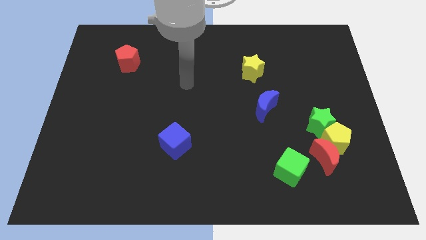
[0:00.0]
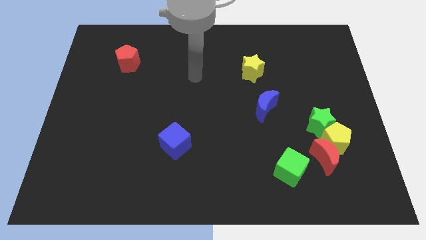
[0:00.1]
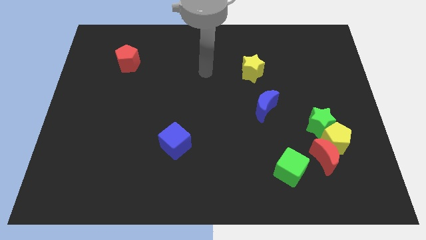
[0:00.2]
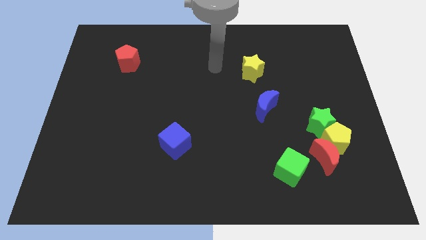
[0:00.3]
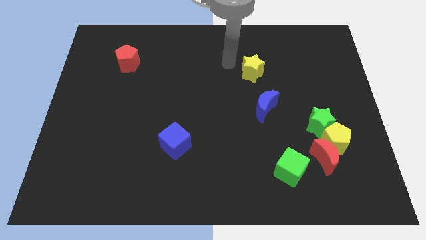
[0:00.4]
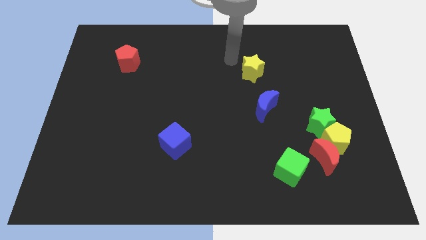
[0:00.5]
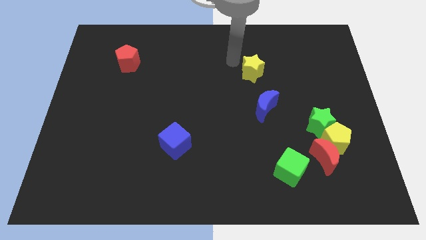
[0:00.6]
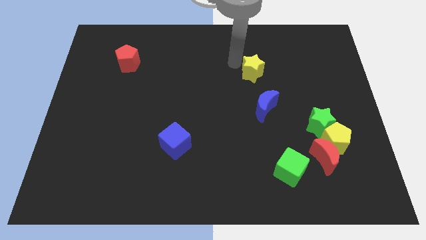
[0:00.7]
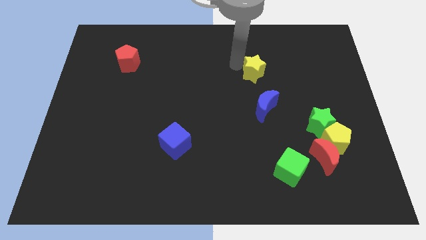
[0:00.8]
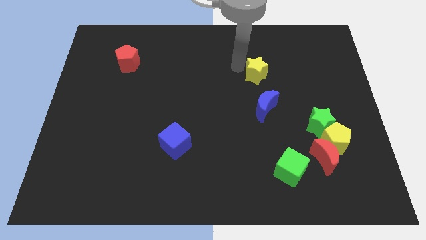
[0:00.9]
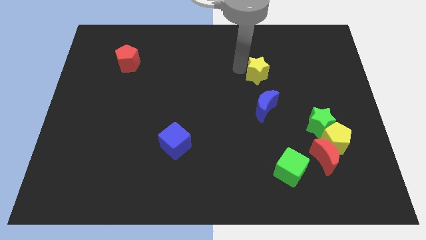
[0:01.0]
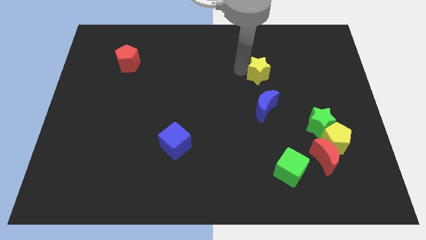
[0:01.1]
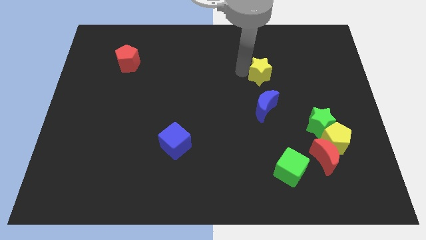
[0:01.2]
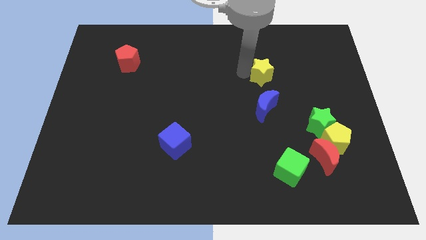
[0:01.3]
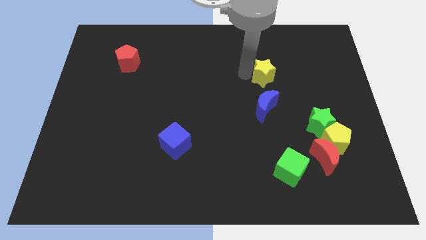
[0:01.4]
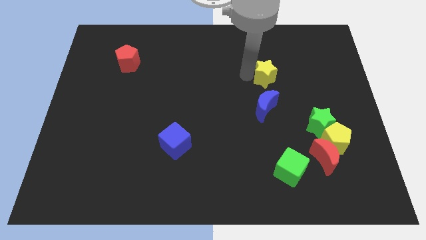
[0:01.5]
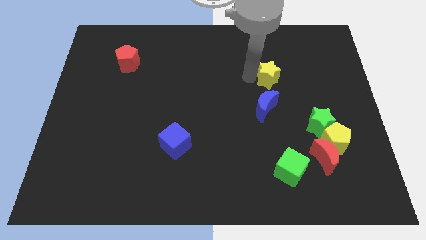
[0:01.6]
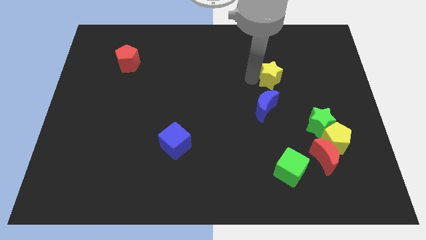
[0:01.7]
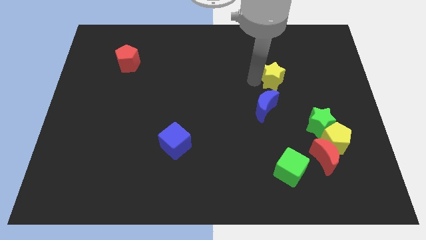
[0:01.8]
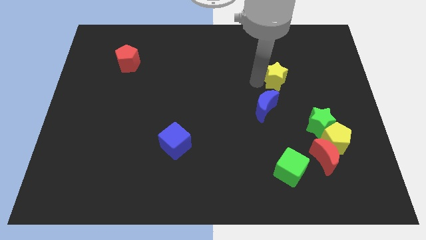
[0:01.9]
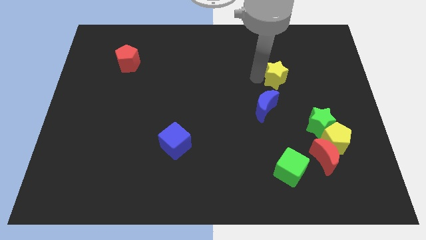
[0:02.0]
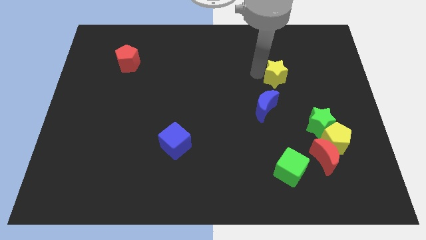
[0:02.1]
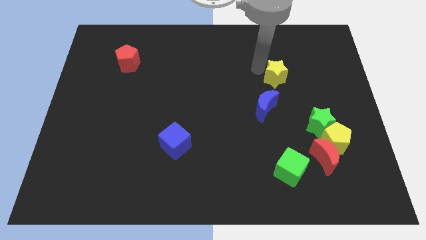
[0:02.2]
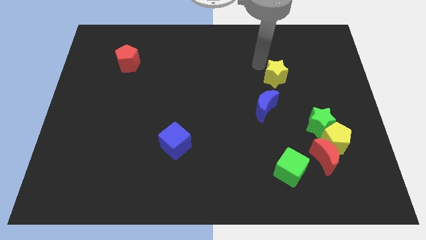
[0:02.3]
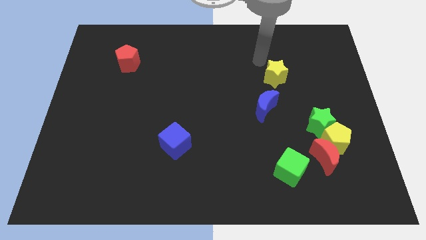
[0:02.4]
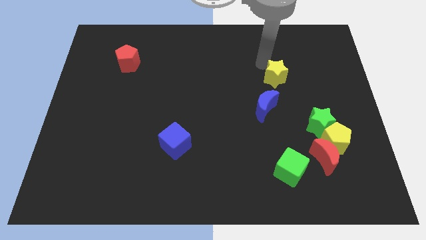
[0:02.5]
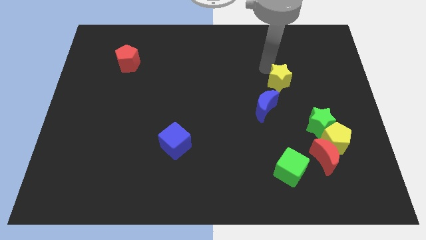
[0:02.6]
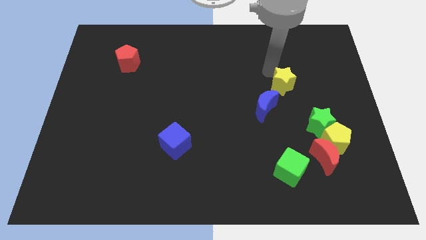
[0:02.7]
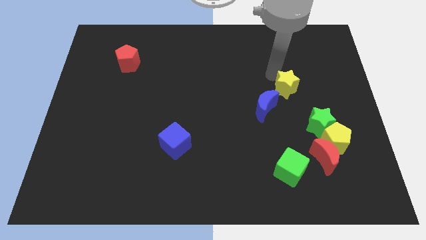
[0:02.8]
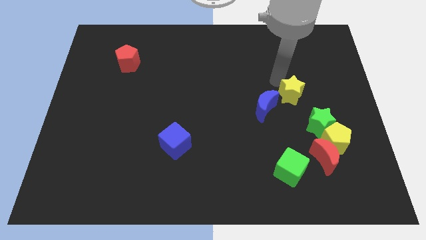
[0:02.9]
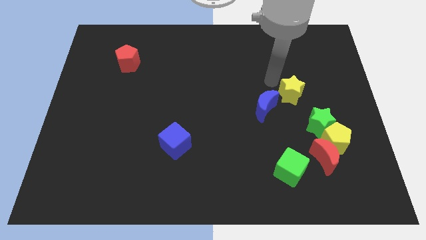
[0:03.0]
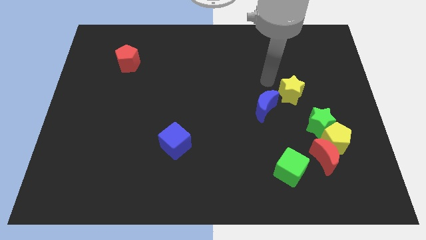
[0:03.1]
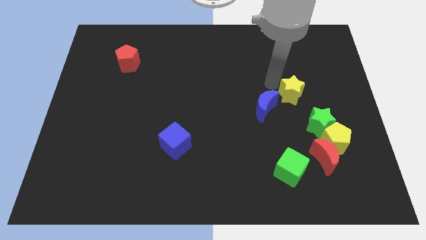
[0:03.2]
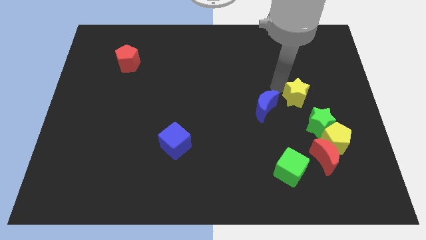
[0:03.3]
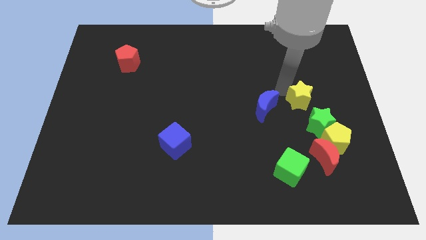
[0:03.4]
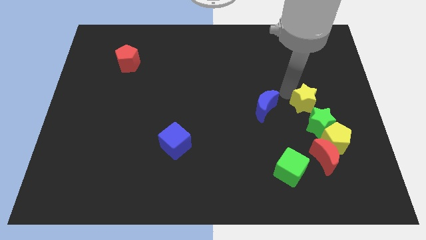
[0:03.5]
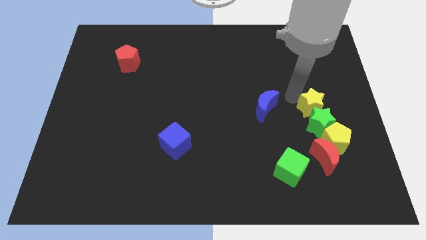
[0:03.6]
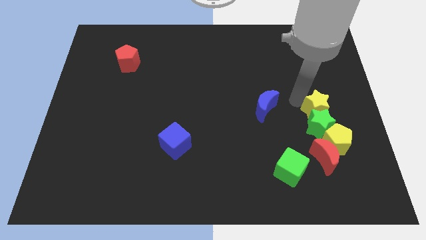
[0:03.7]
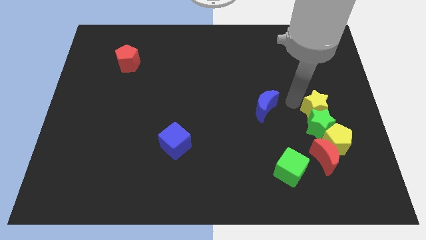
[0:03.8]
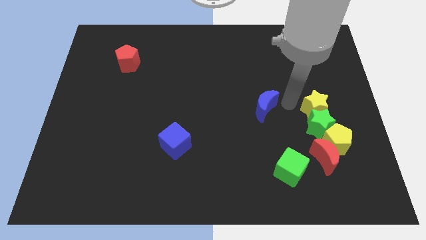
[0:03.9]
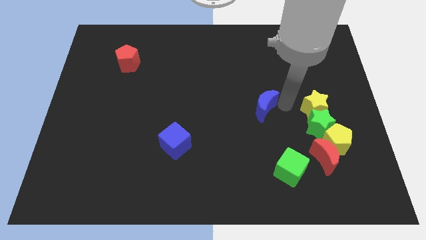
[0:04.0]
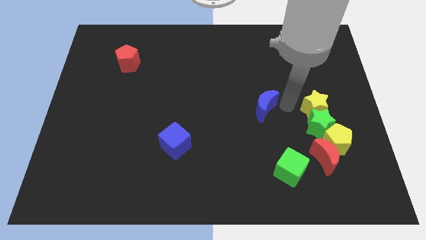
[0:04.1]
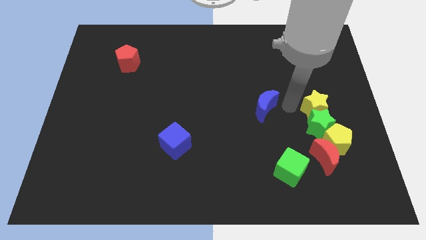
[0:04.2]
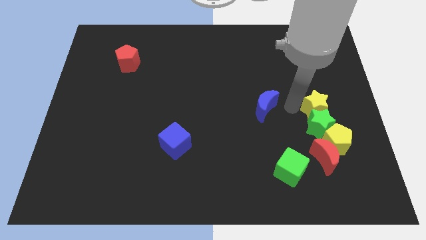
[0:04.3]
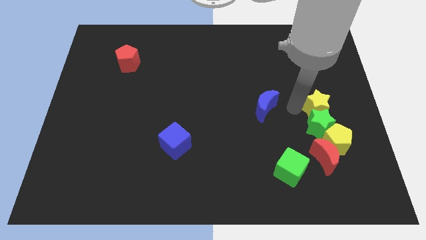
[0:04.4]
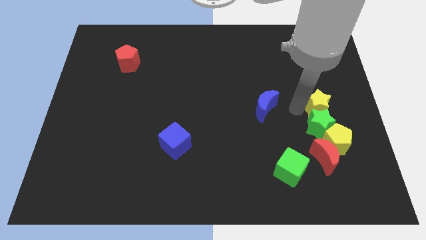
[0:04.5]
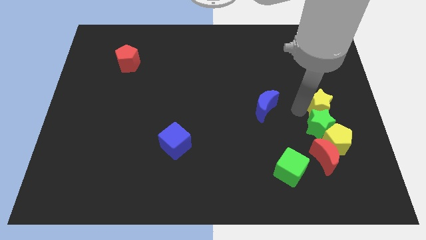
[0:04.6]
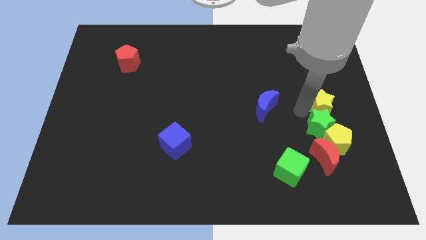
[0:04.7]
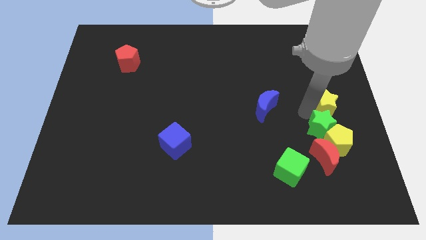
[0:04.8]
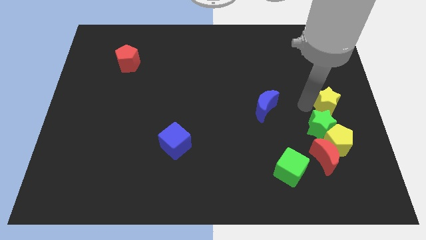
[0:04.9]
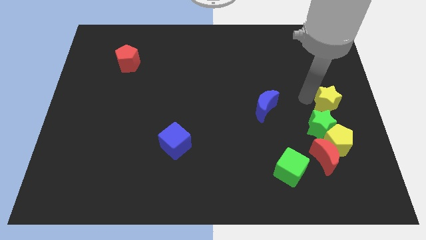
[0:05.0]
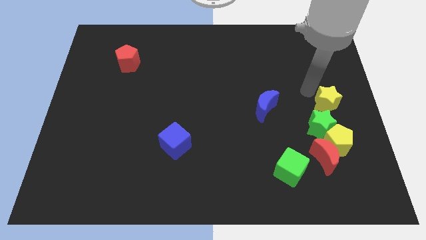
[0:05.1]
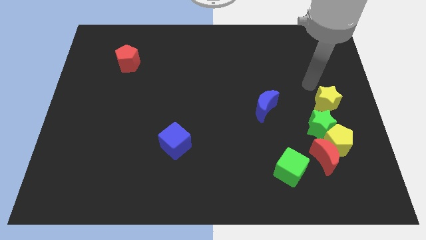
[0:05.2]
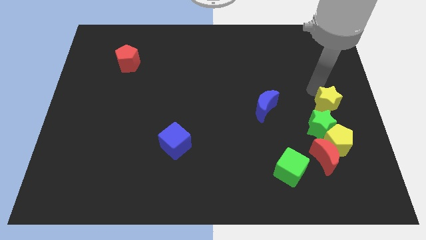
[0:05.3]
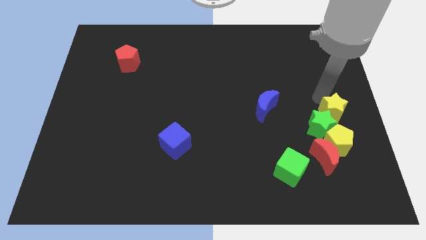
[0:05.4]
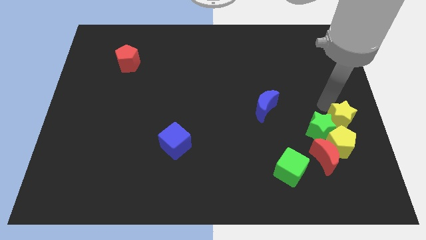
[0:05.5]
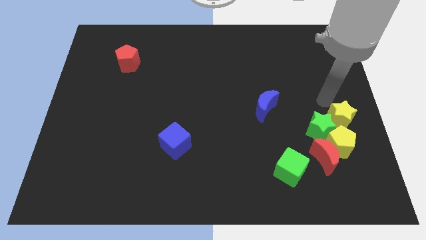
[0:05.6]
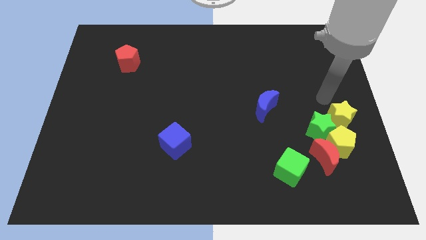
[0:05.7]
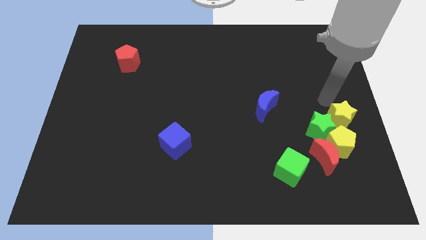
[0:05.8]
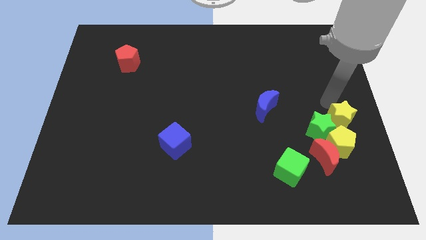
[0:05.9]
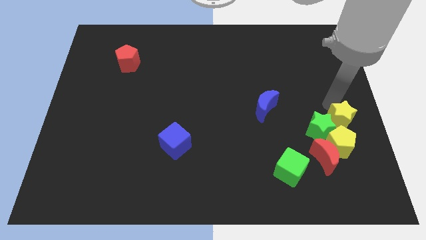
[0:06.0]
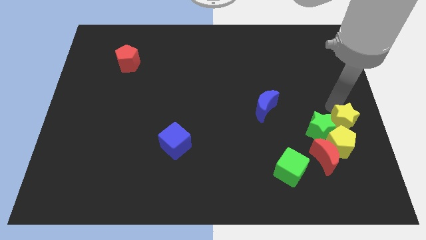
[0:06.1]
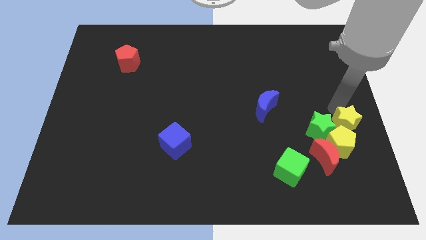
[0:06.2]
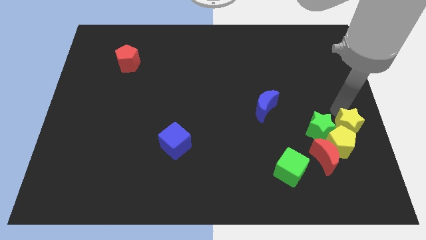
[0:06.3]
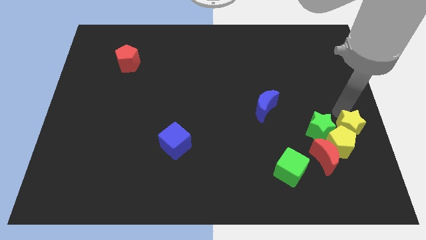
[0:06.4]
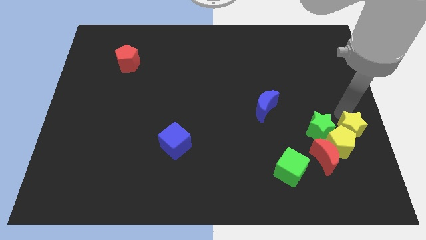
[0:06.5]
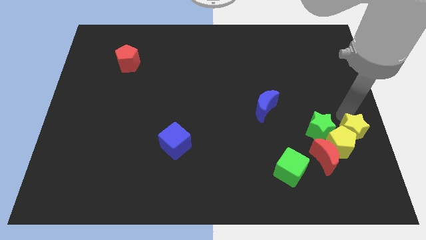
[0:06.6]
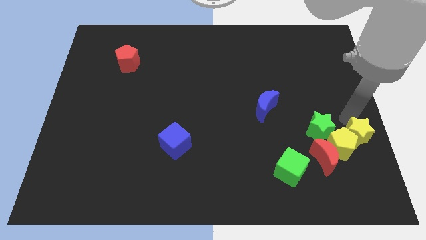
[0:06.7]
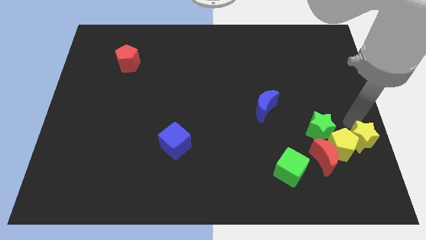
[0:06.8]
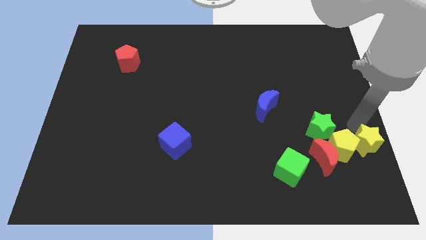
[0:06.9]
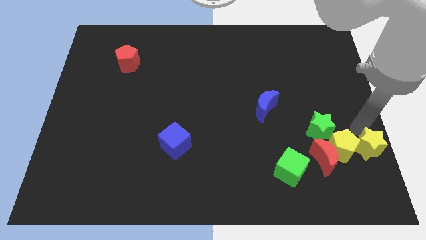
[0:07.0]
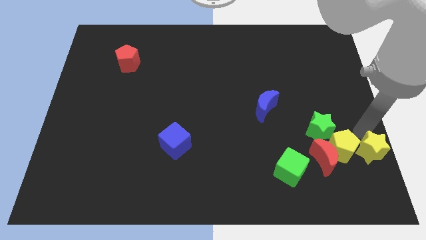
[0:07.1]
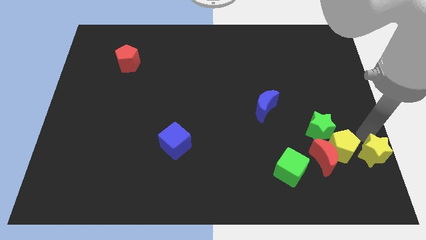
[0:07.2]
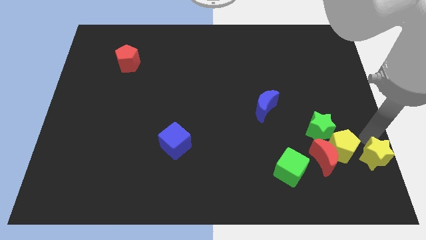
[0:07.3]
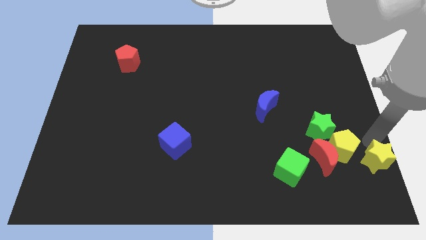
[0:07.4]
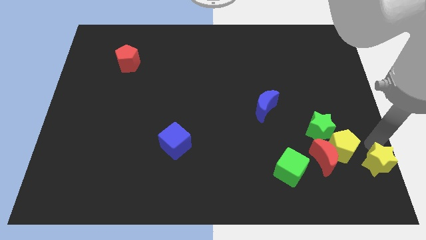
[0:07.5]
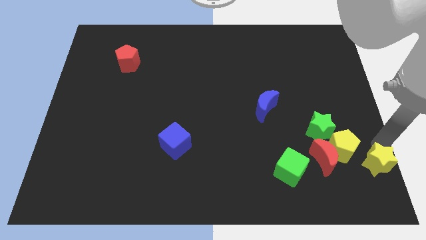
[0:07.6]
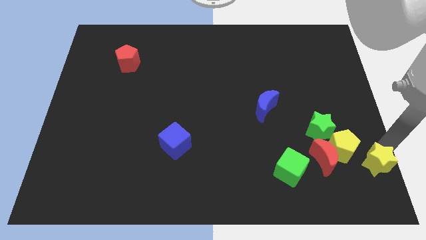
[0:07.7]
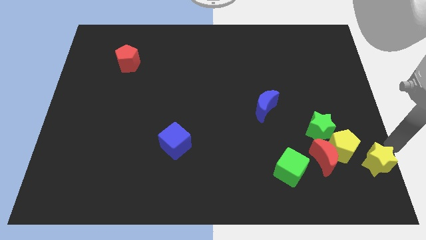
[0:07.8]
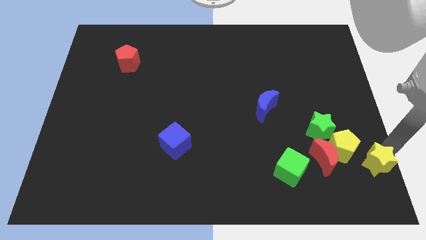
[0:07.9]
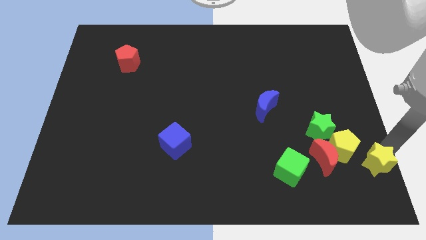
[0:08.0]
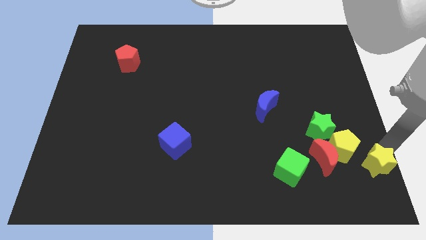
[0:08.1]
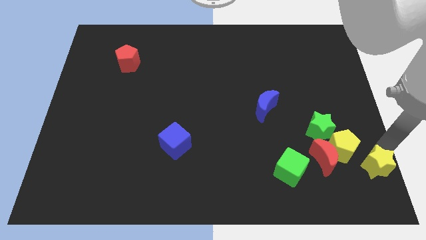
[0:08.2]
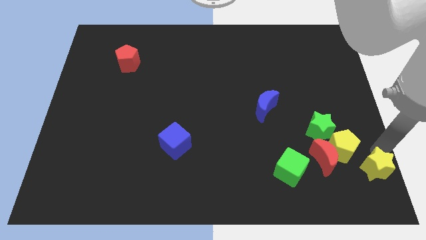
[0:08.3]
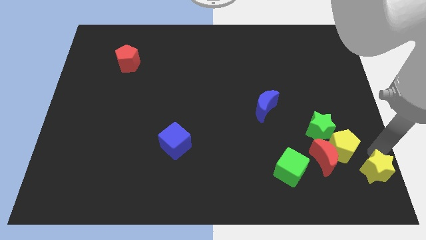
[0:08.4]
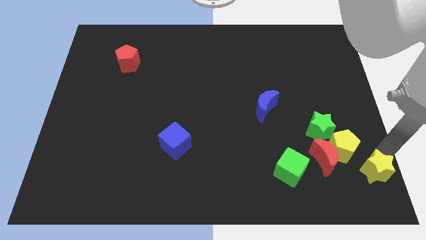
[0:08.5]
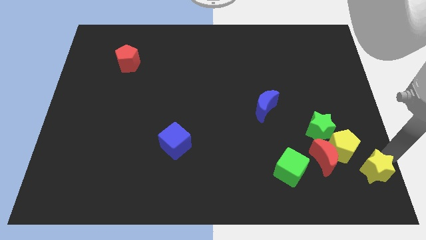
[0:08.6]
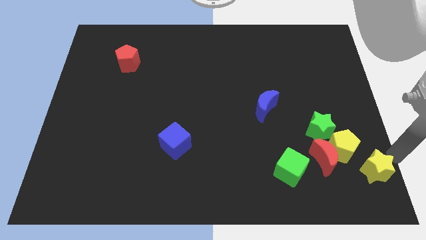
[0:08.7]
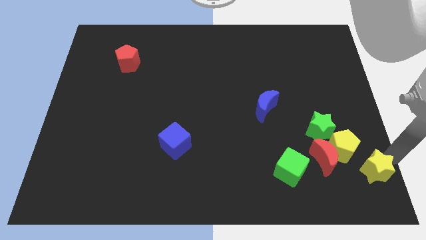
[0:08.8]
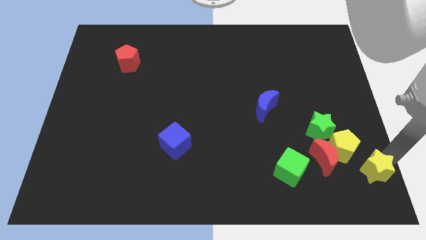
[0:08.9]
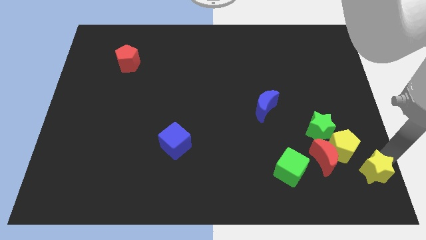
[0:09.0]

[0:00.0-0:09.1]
push the yellow star to the bottom right side of the red moon
